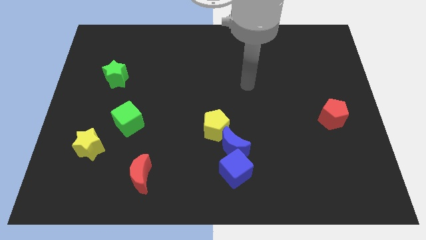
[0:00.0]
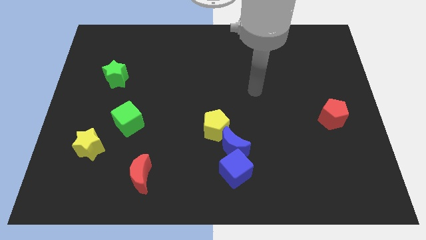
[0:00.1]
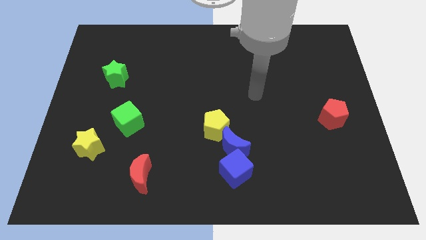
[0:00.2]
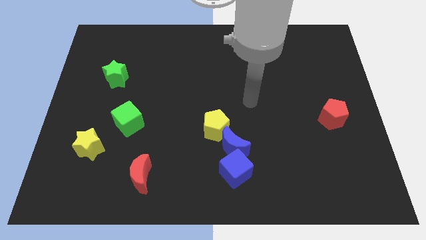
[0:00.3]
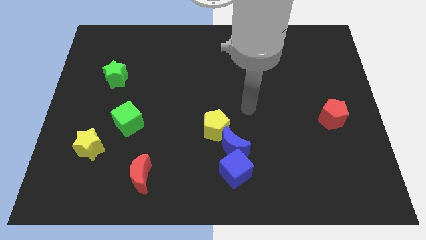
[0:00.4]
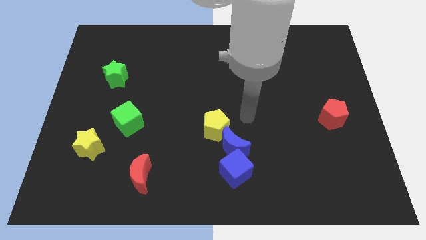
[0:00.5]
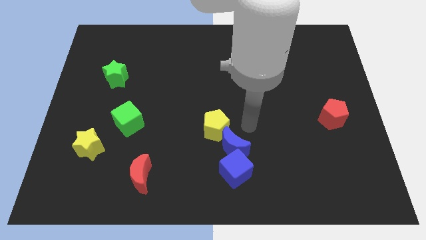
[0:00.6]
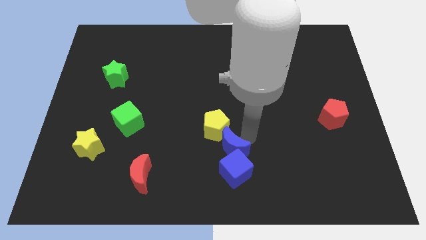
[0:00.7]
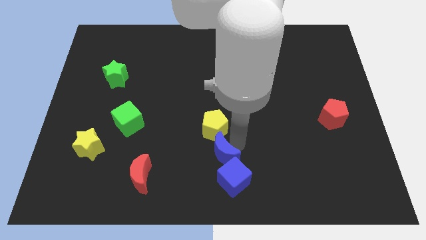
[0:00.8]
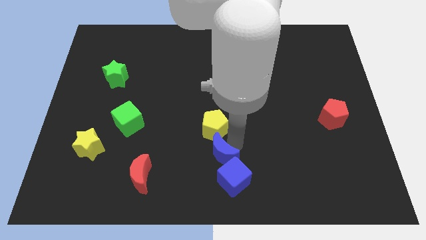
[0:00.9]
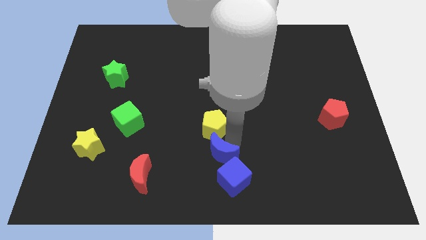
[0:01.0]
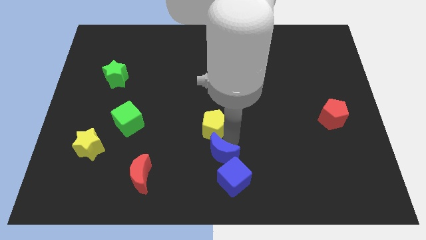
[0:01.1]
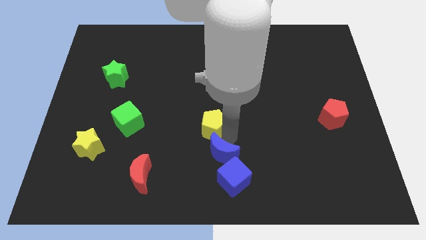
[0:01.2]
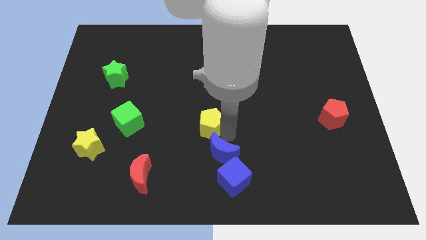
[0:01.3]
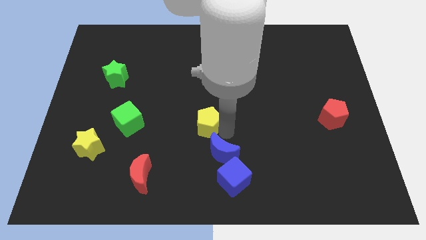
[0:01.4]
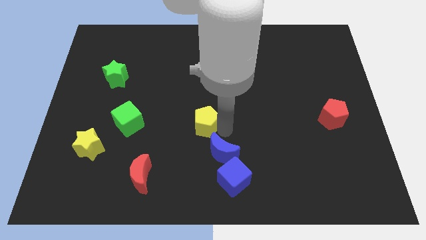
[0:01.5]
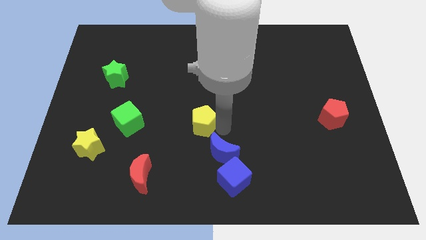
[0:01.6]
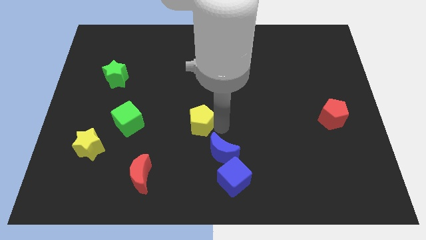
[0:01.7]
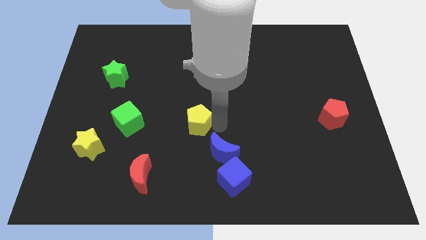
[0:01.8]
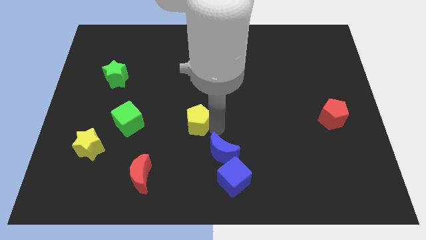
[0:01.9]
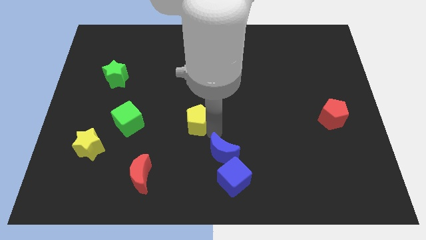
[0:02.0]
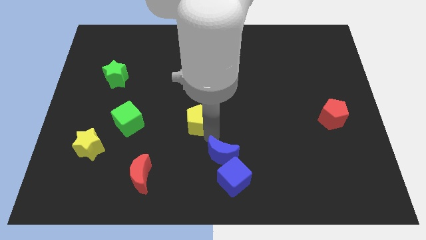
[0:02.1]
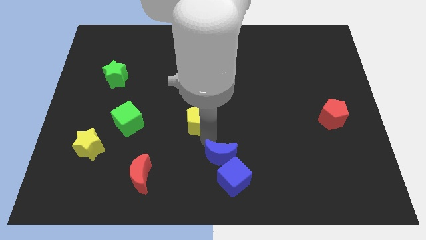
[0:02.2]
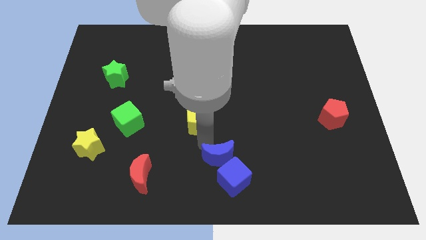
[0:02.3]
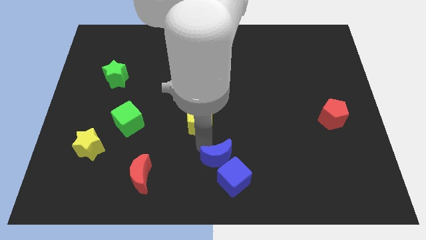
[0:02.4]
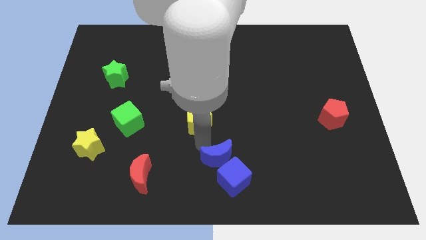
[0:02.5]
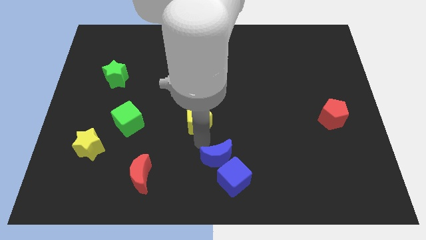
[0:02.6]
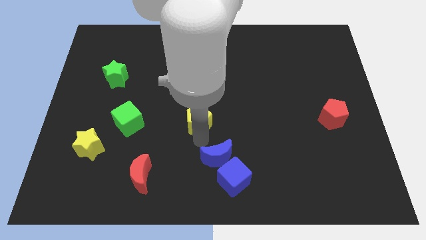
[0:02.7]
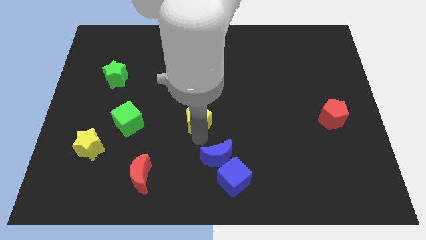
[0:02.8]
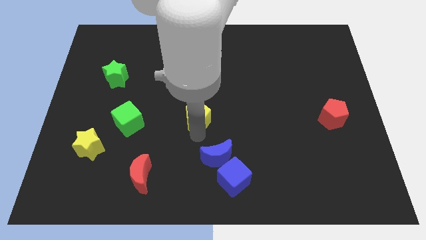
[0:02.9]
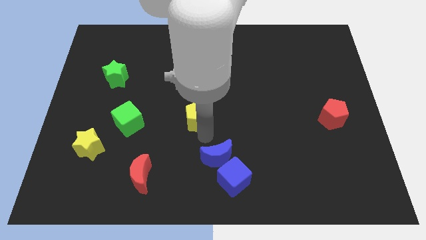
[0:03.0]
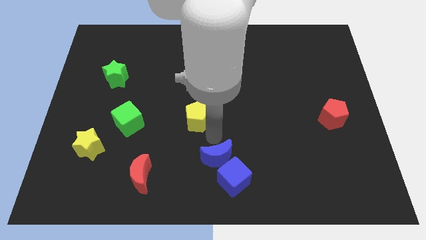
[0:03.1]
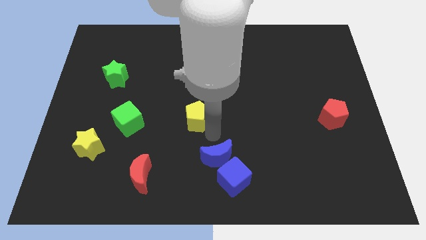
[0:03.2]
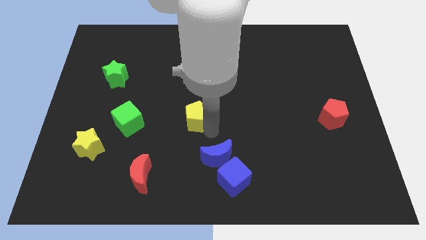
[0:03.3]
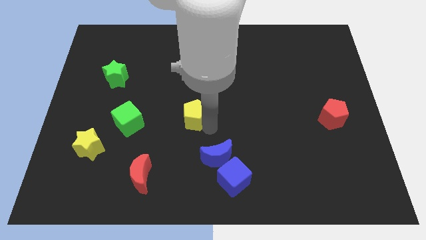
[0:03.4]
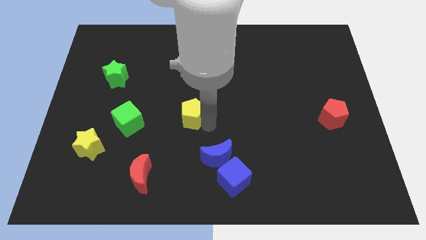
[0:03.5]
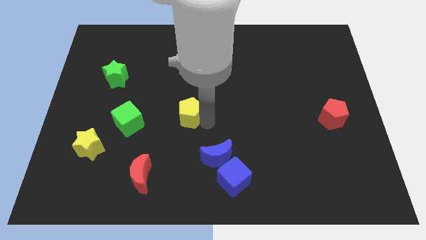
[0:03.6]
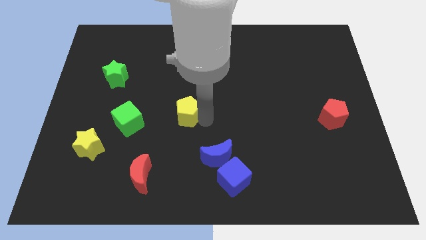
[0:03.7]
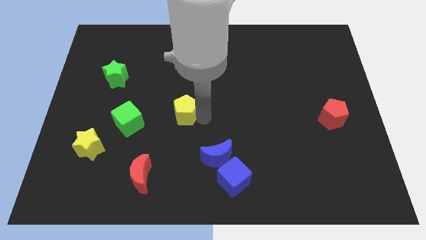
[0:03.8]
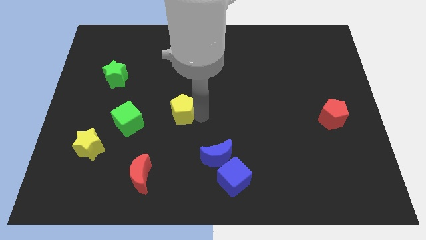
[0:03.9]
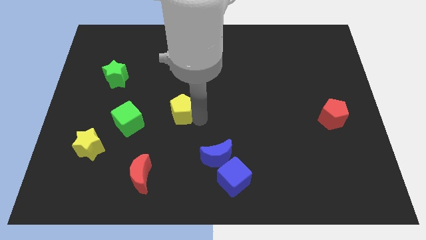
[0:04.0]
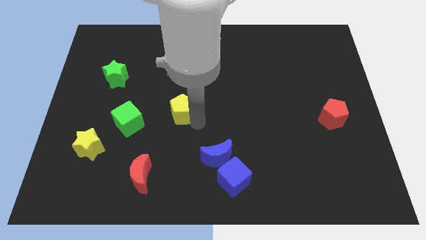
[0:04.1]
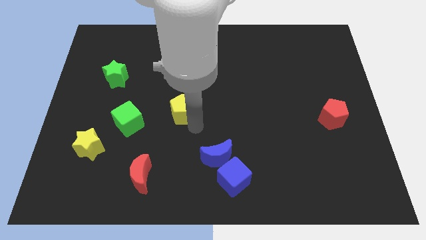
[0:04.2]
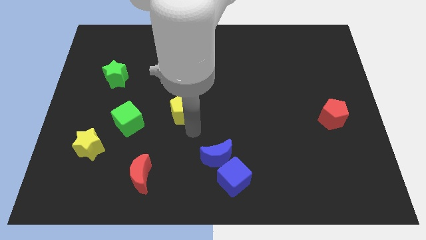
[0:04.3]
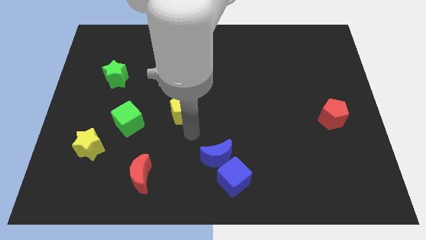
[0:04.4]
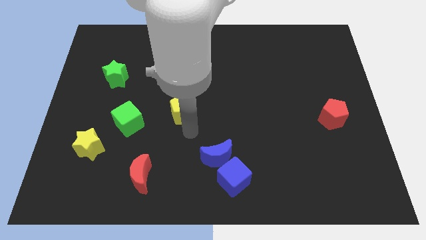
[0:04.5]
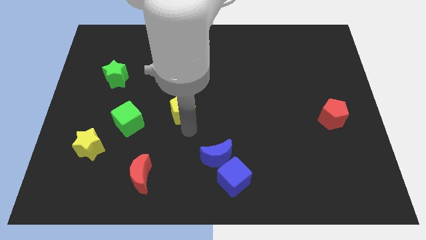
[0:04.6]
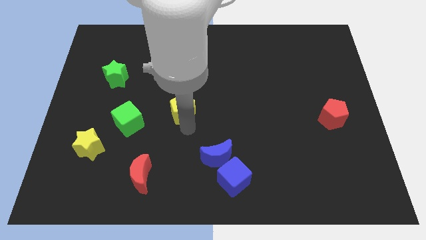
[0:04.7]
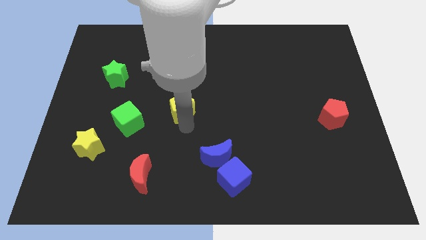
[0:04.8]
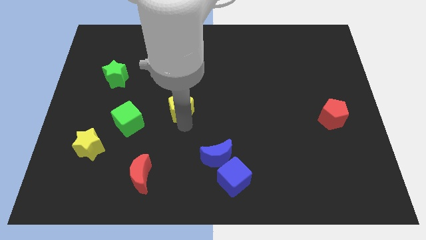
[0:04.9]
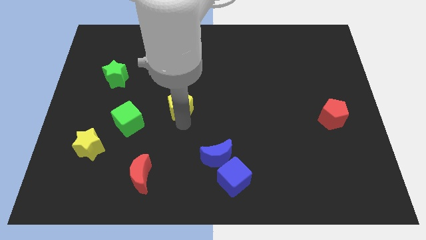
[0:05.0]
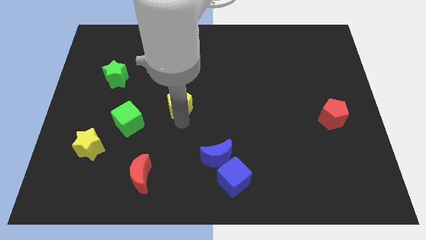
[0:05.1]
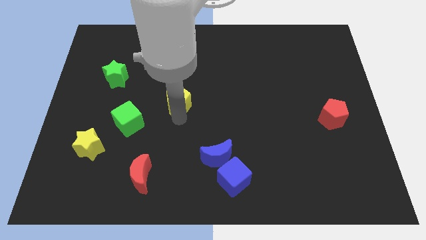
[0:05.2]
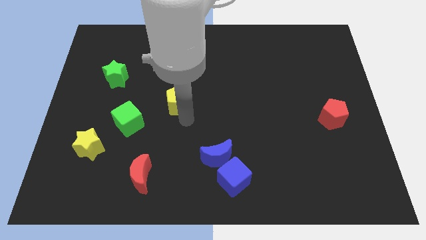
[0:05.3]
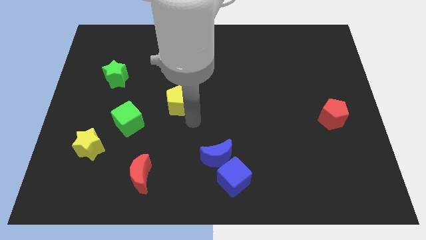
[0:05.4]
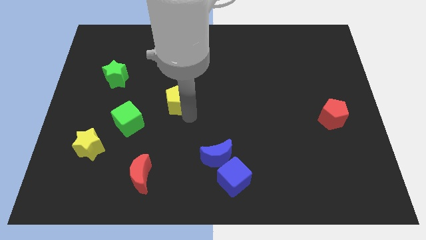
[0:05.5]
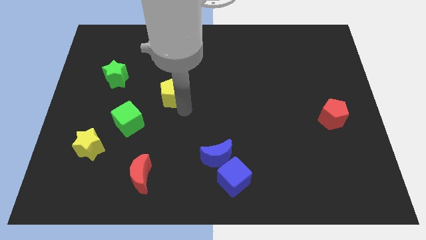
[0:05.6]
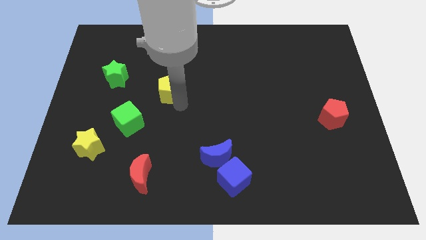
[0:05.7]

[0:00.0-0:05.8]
push the yellow pentagon right of the green star
